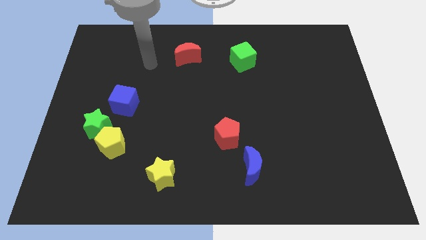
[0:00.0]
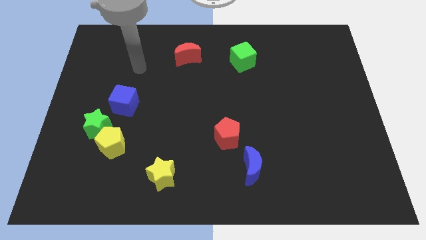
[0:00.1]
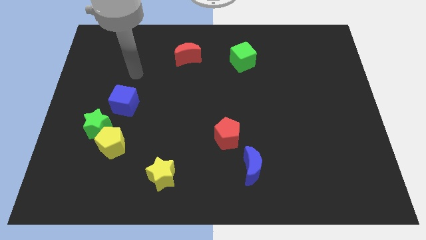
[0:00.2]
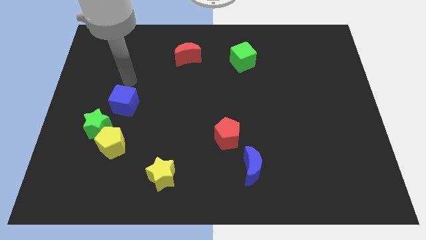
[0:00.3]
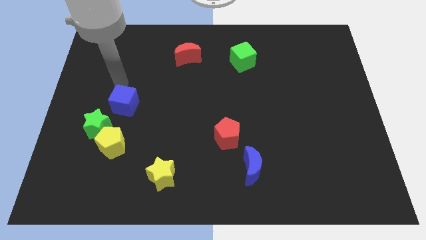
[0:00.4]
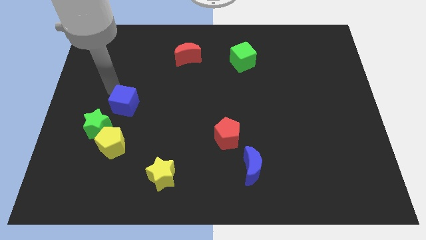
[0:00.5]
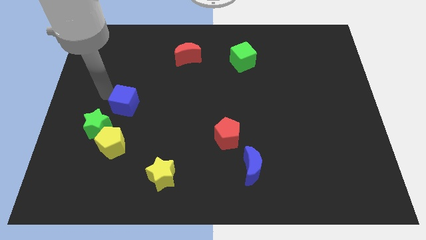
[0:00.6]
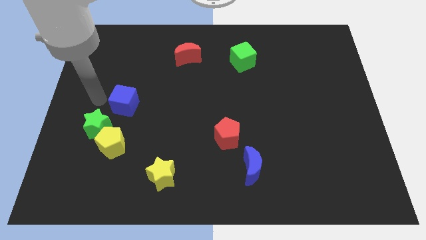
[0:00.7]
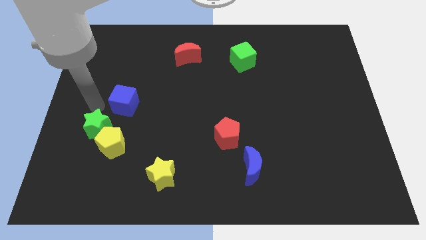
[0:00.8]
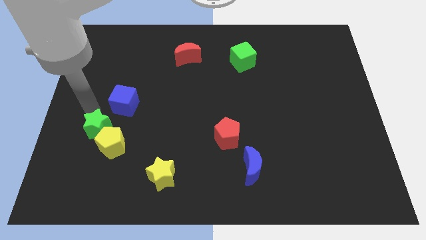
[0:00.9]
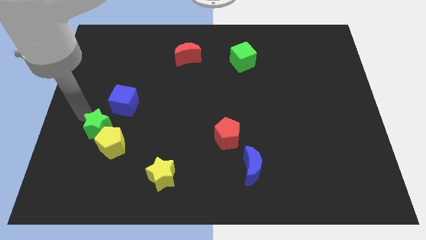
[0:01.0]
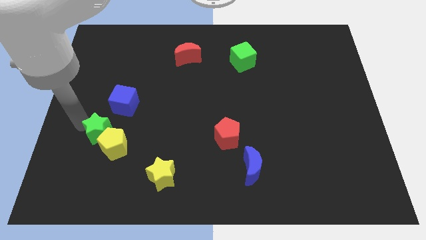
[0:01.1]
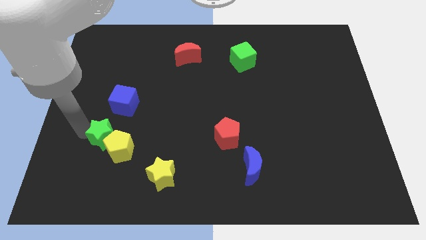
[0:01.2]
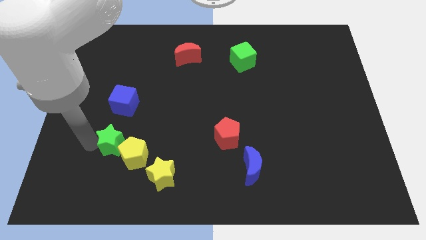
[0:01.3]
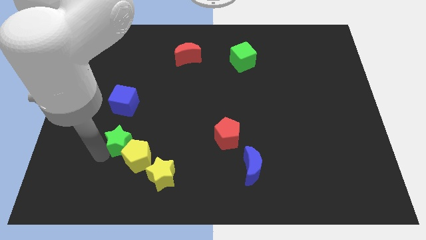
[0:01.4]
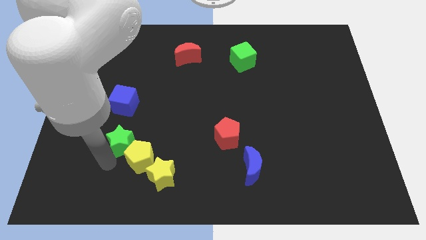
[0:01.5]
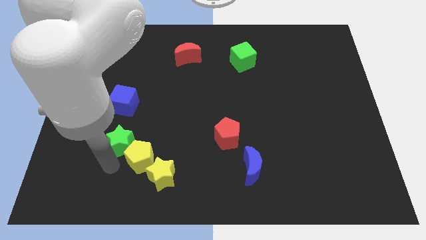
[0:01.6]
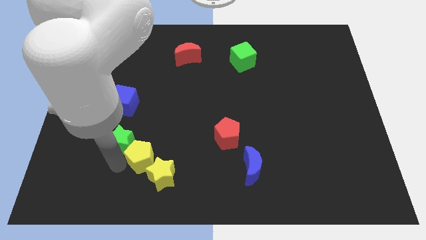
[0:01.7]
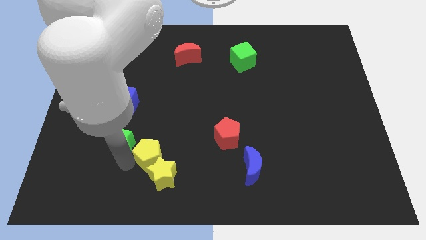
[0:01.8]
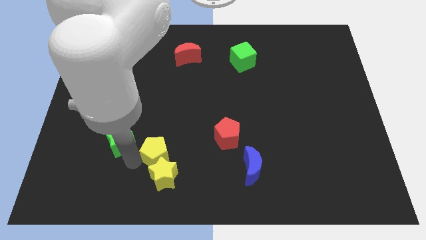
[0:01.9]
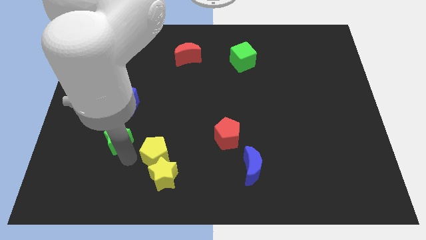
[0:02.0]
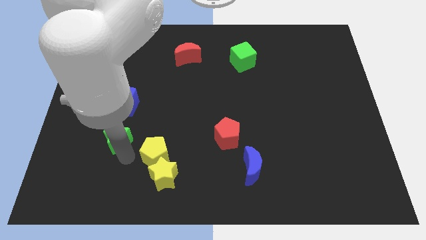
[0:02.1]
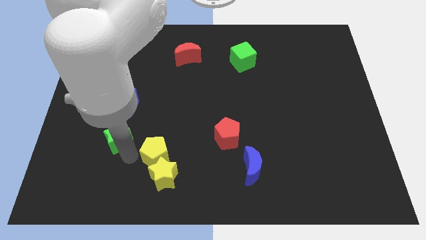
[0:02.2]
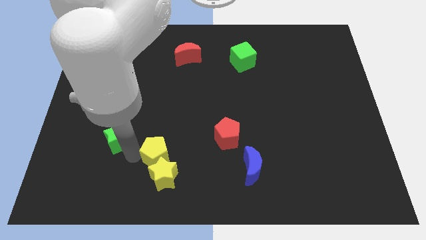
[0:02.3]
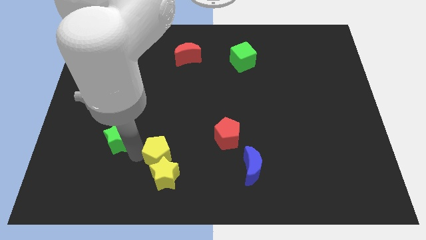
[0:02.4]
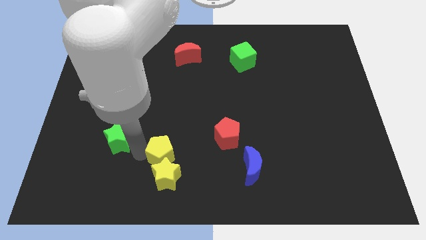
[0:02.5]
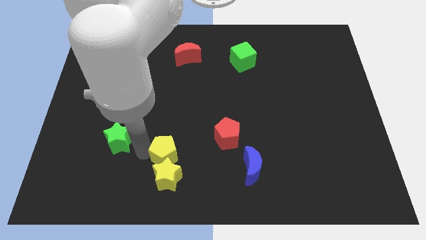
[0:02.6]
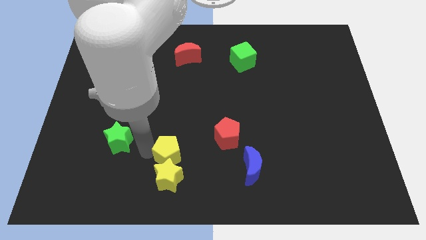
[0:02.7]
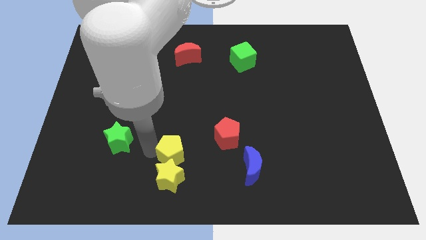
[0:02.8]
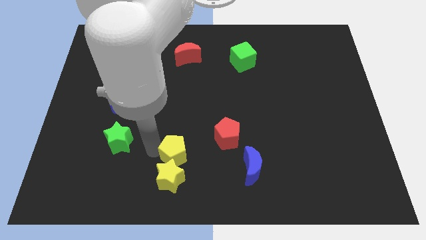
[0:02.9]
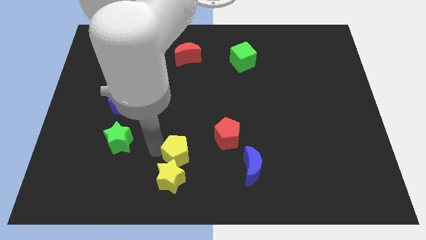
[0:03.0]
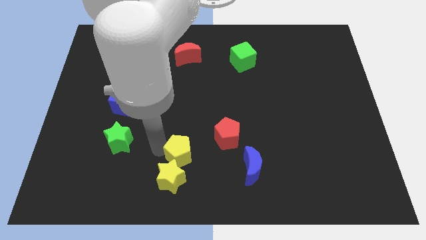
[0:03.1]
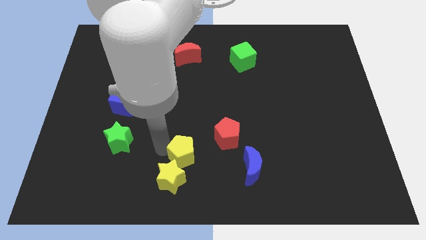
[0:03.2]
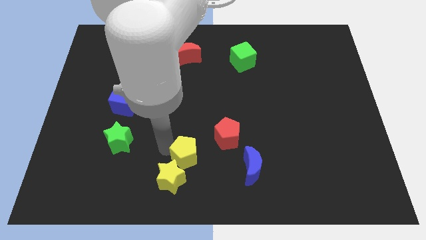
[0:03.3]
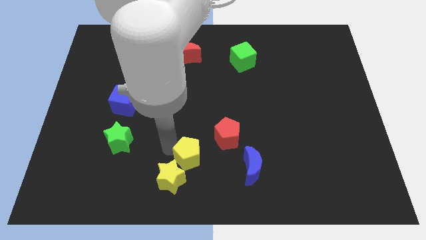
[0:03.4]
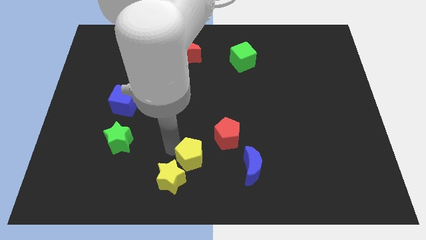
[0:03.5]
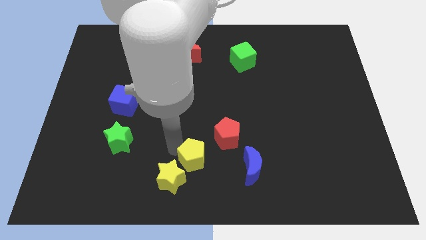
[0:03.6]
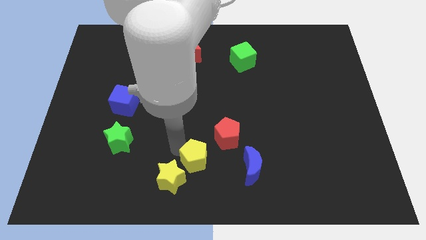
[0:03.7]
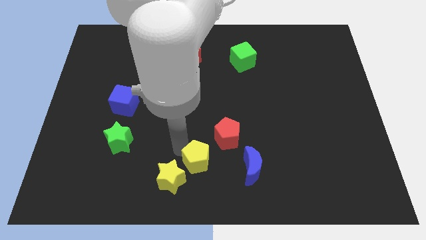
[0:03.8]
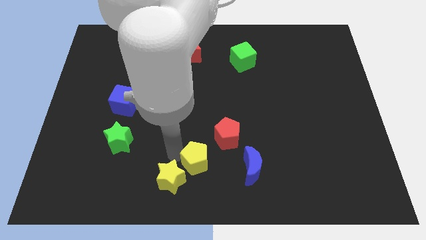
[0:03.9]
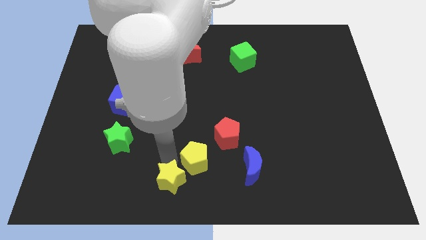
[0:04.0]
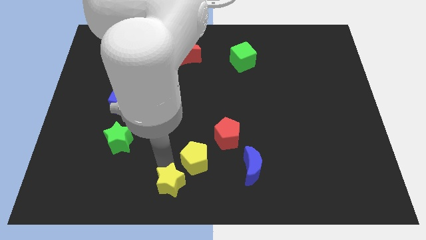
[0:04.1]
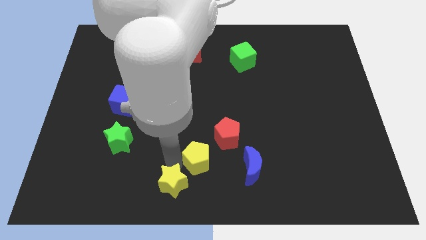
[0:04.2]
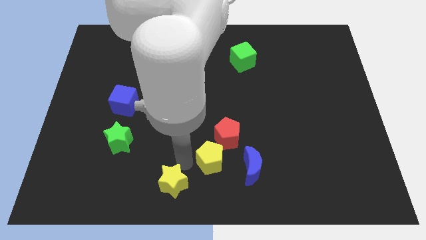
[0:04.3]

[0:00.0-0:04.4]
slide the yellow pentagon right

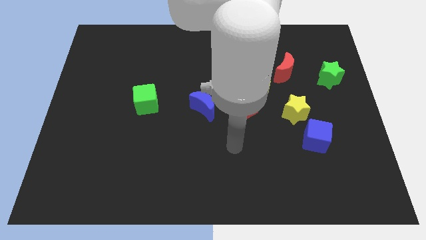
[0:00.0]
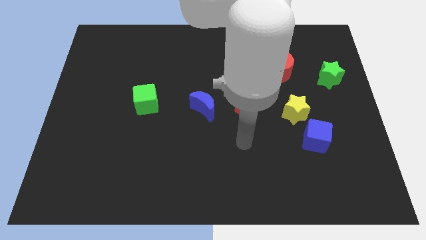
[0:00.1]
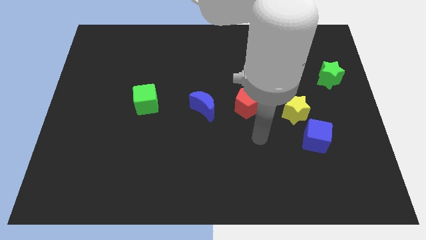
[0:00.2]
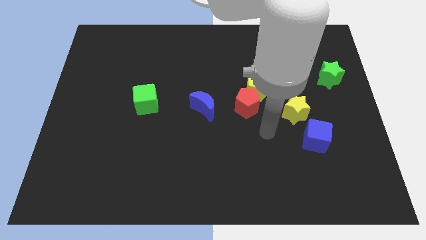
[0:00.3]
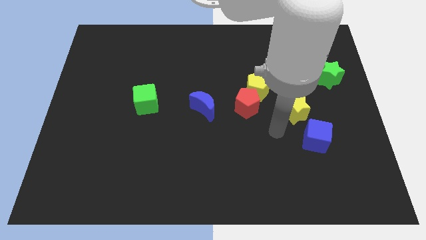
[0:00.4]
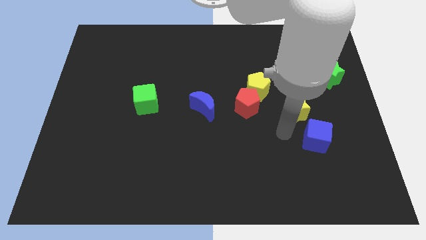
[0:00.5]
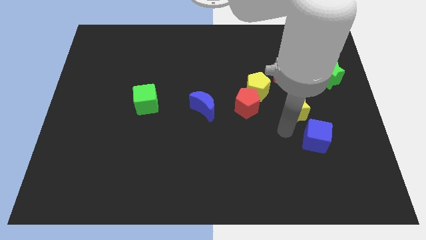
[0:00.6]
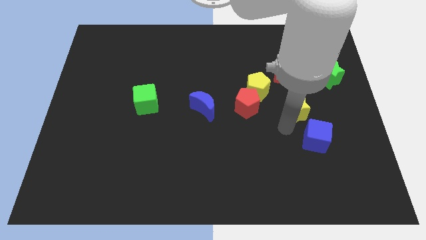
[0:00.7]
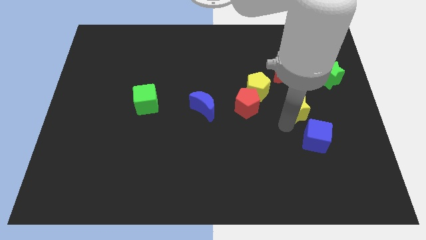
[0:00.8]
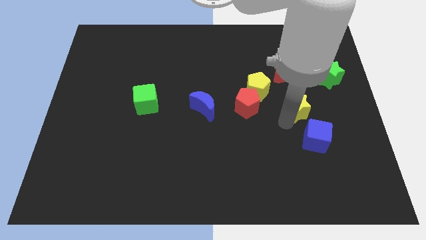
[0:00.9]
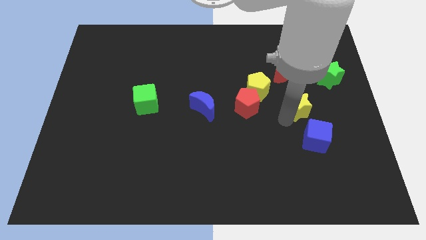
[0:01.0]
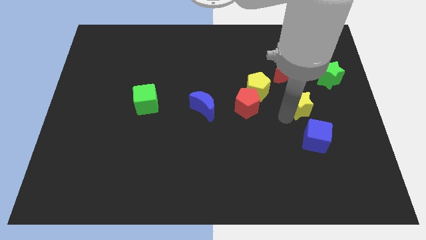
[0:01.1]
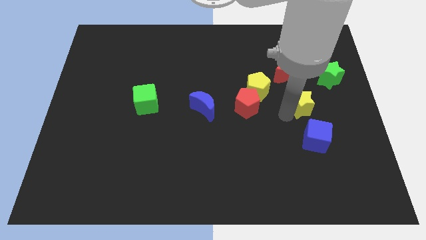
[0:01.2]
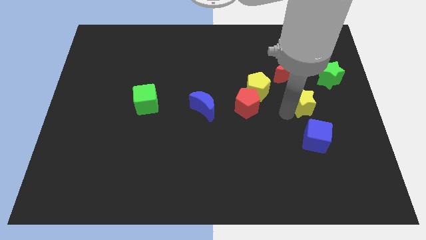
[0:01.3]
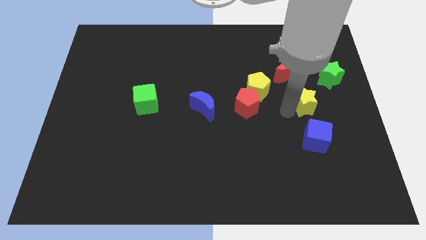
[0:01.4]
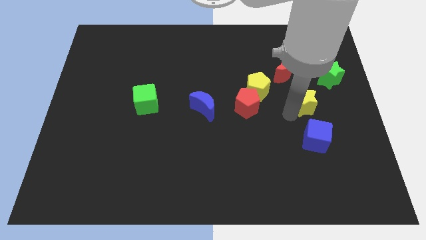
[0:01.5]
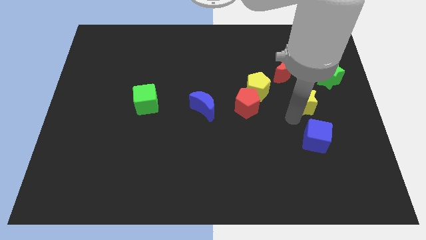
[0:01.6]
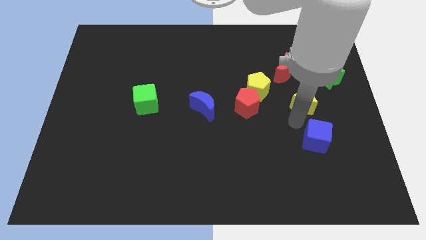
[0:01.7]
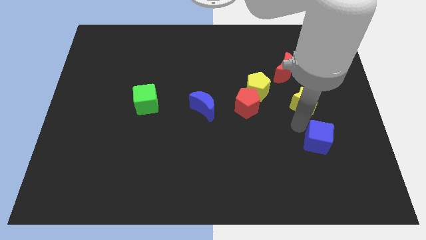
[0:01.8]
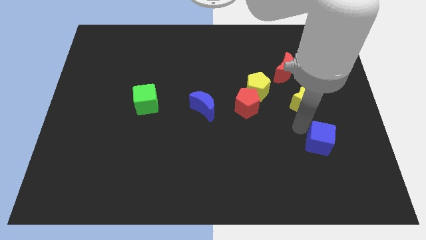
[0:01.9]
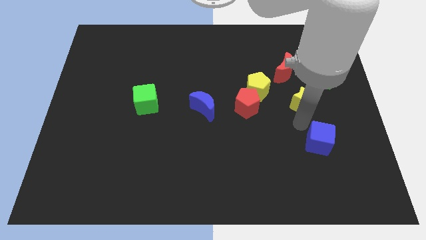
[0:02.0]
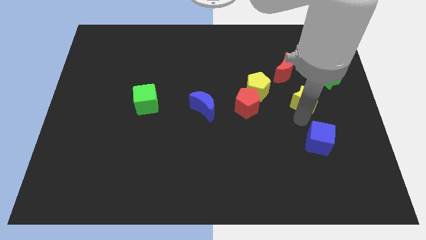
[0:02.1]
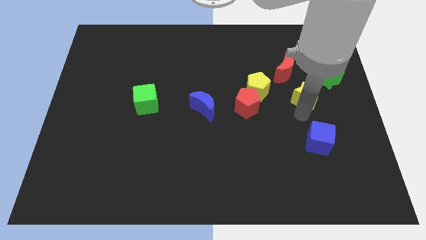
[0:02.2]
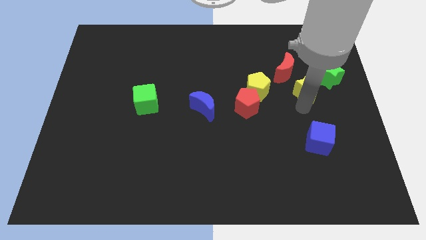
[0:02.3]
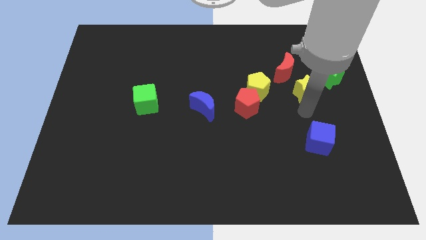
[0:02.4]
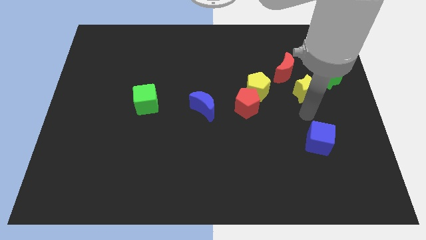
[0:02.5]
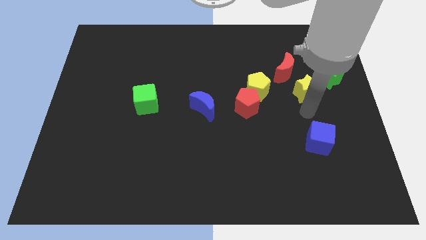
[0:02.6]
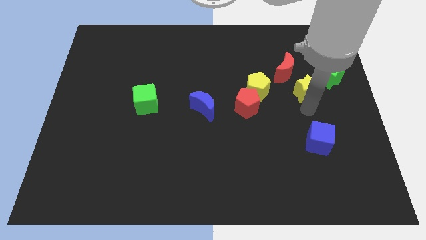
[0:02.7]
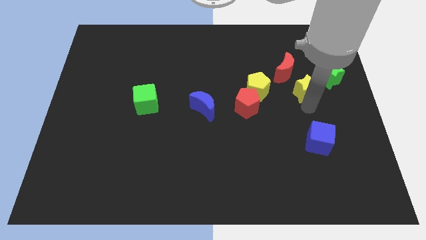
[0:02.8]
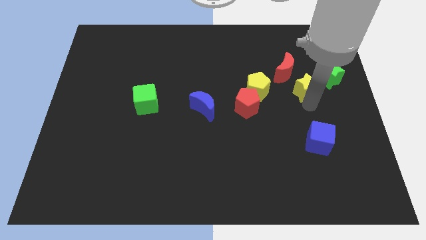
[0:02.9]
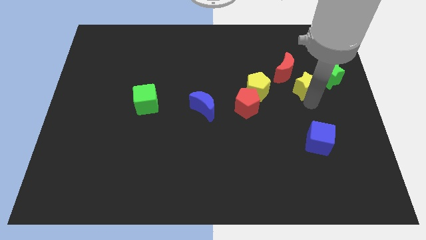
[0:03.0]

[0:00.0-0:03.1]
push the yellow star up somewhat

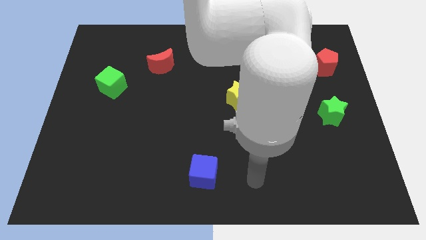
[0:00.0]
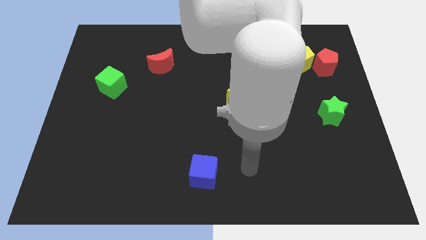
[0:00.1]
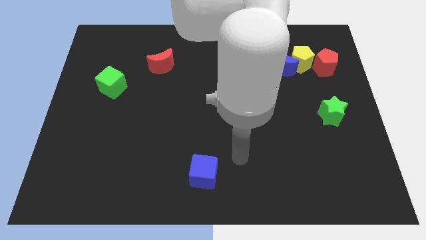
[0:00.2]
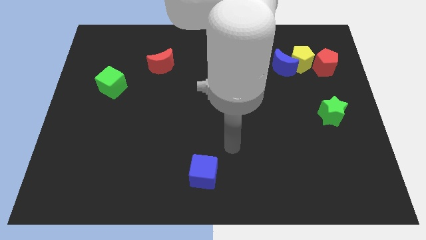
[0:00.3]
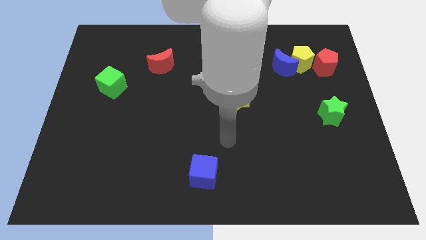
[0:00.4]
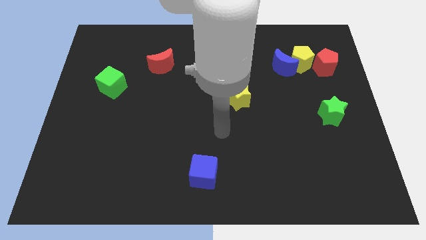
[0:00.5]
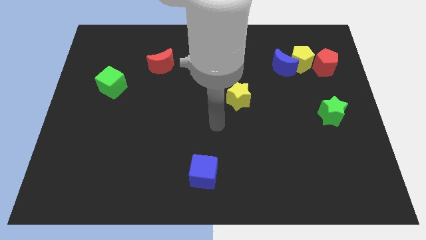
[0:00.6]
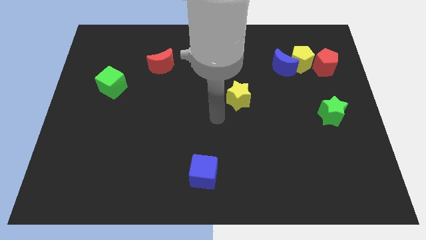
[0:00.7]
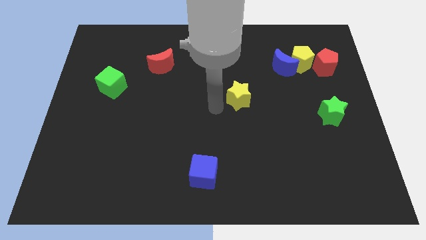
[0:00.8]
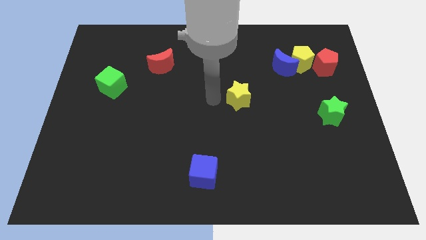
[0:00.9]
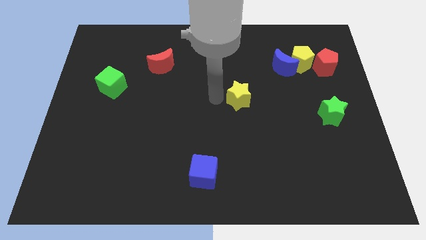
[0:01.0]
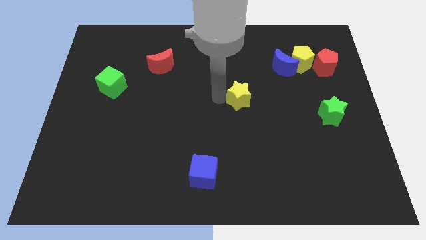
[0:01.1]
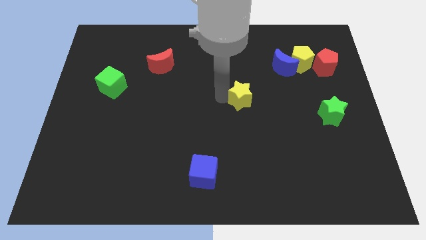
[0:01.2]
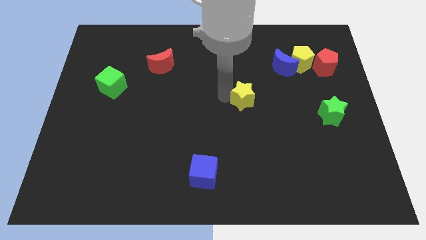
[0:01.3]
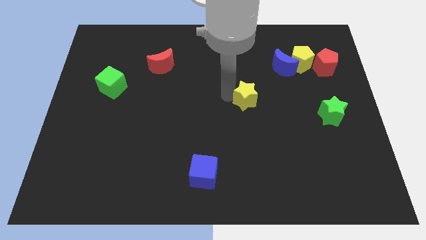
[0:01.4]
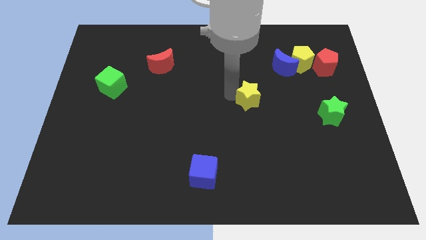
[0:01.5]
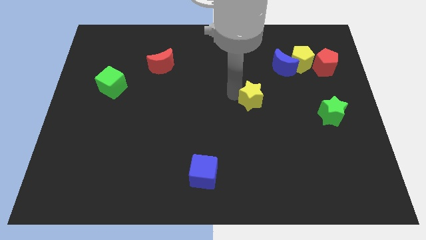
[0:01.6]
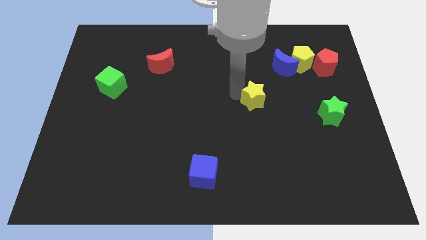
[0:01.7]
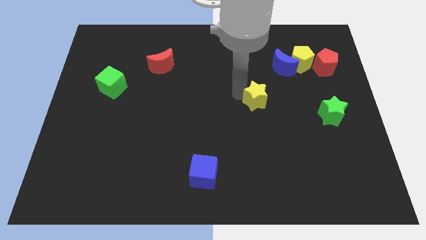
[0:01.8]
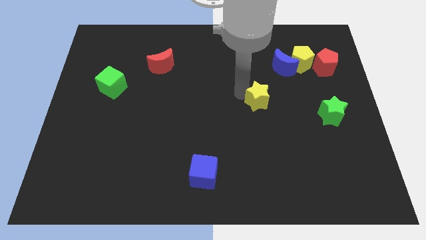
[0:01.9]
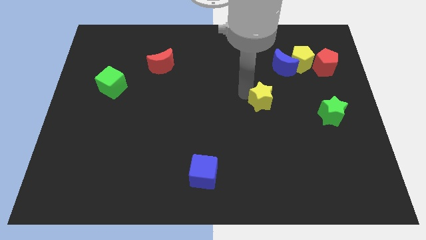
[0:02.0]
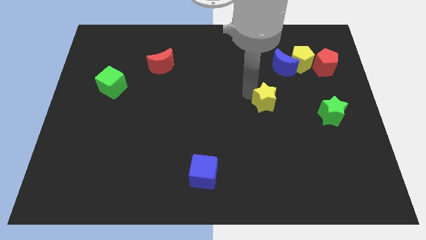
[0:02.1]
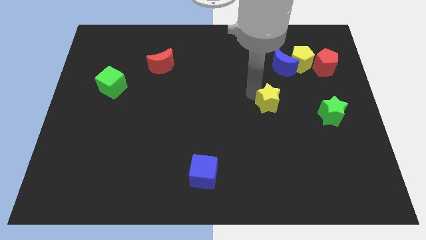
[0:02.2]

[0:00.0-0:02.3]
slide the yellow star right a little bit
